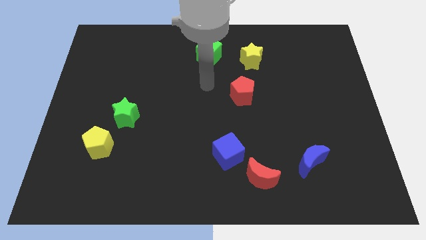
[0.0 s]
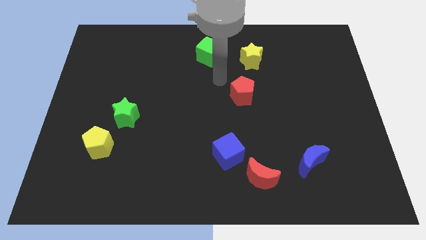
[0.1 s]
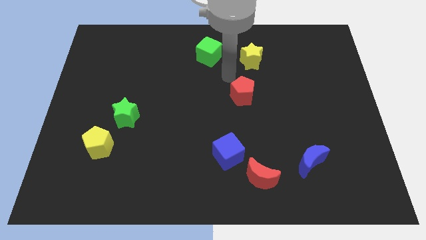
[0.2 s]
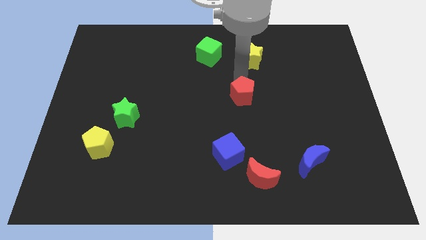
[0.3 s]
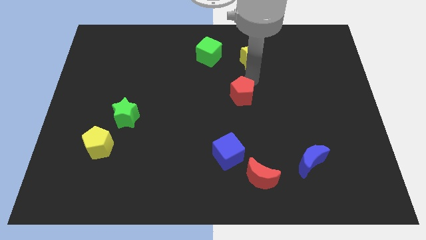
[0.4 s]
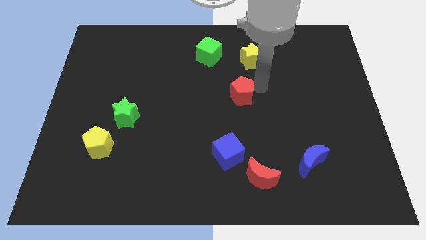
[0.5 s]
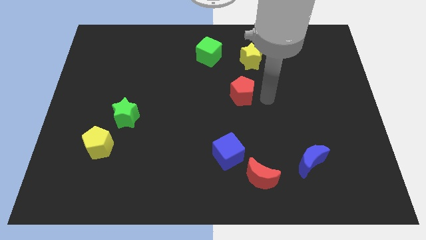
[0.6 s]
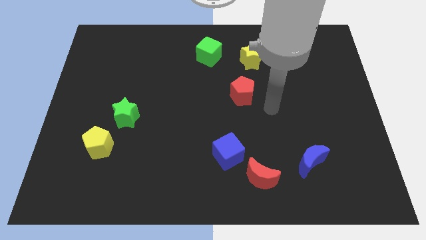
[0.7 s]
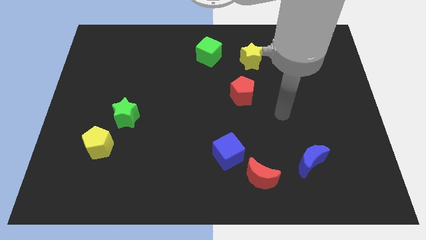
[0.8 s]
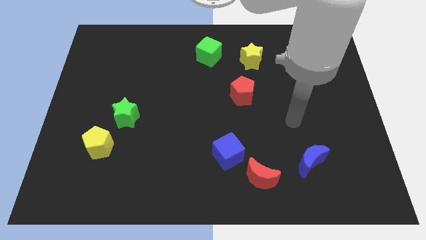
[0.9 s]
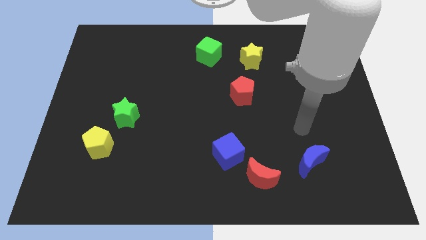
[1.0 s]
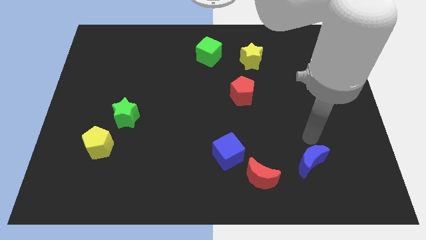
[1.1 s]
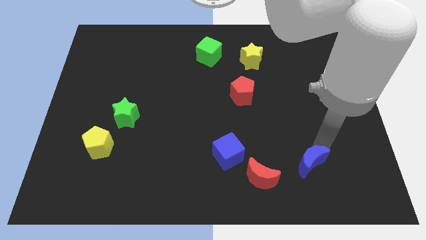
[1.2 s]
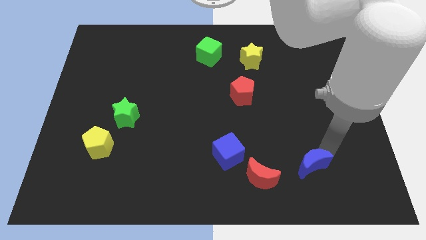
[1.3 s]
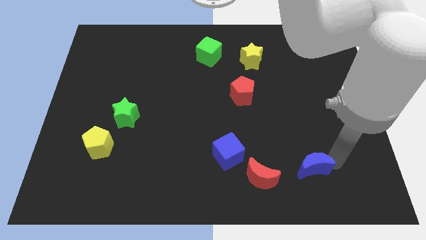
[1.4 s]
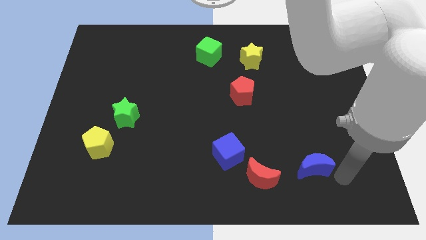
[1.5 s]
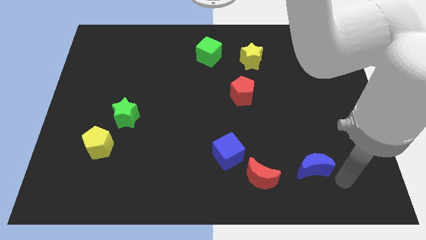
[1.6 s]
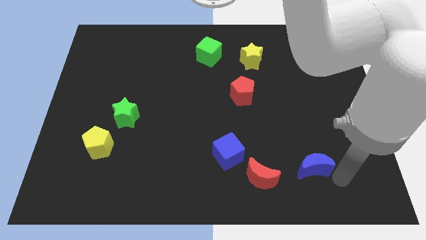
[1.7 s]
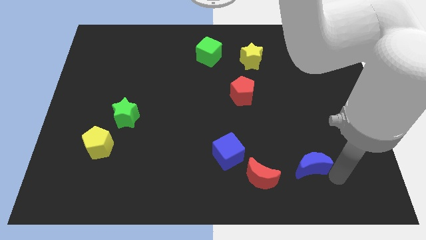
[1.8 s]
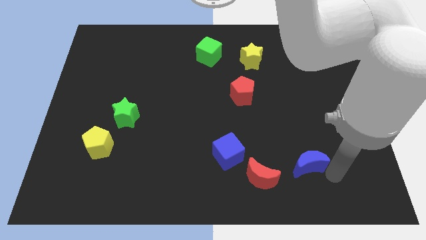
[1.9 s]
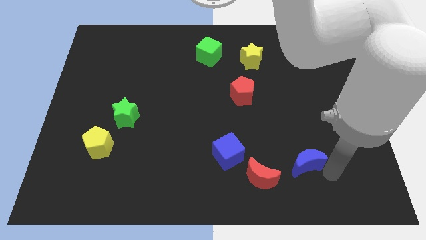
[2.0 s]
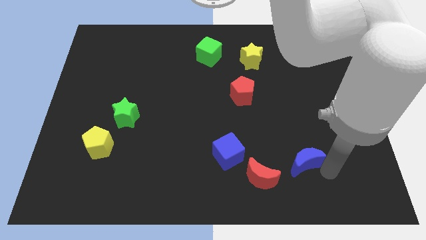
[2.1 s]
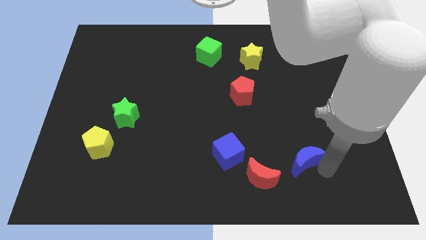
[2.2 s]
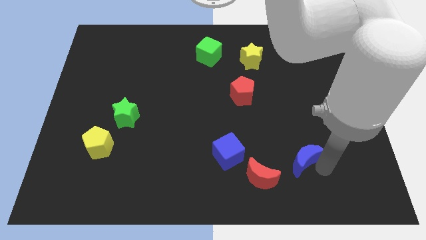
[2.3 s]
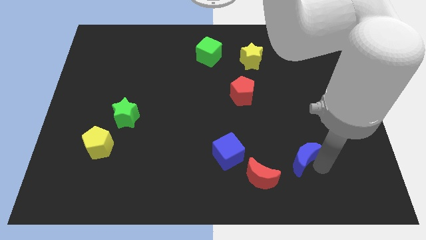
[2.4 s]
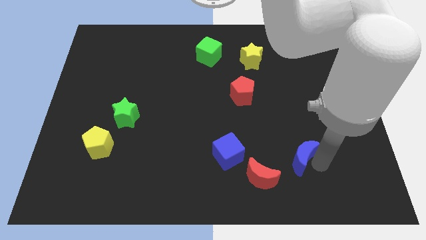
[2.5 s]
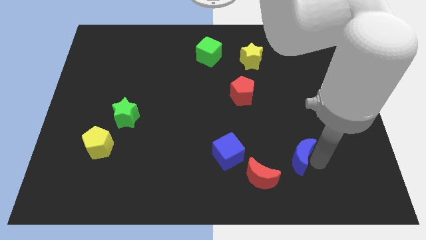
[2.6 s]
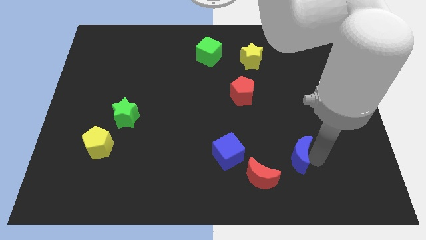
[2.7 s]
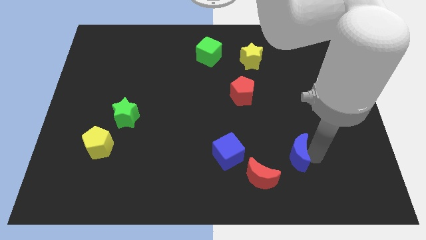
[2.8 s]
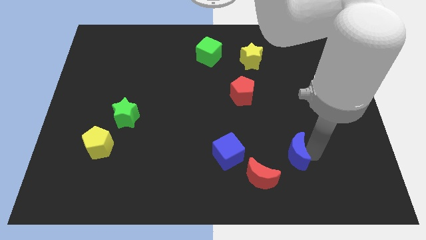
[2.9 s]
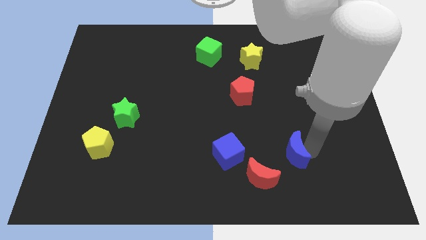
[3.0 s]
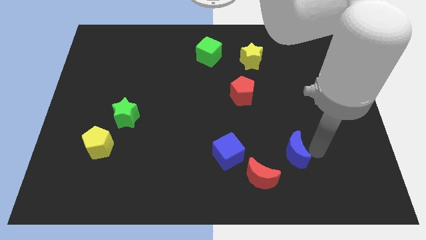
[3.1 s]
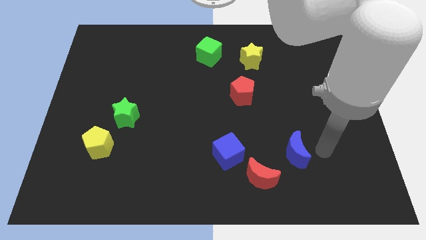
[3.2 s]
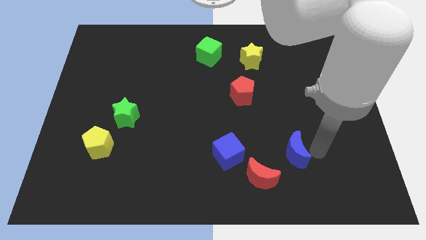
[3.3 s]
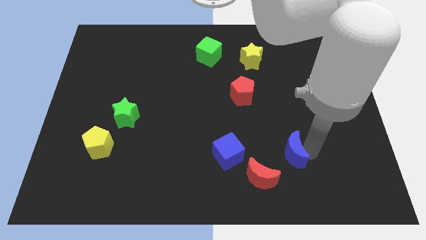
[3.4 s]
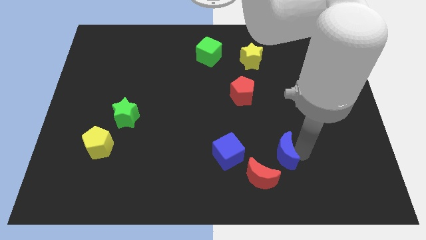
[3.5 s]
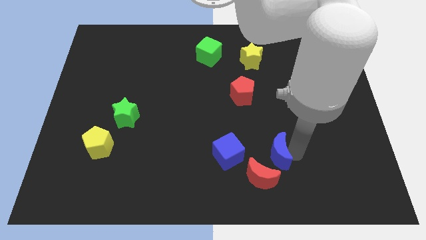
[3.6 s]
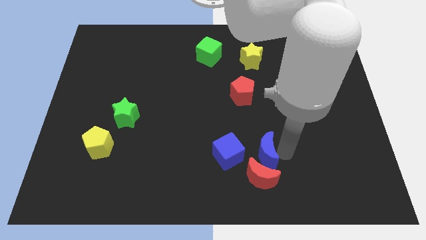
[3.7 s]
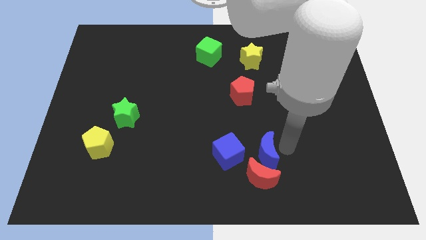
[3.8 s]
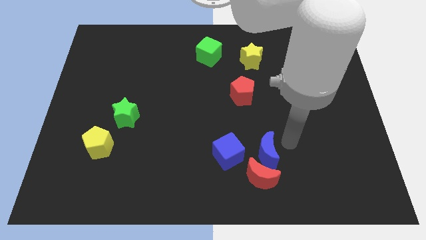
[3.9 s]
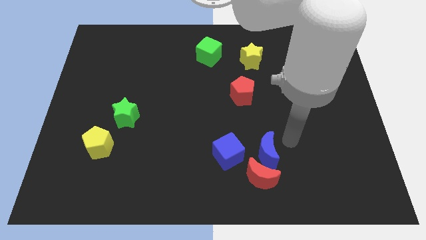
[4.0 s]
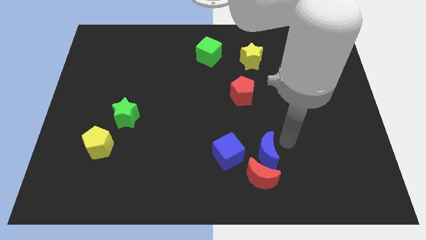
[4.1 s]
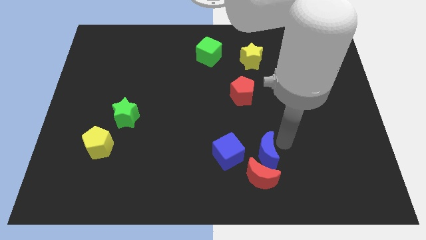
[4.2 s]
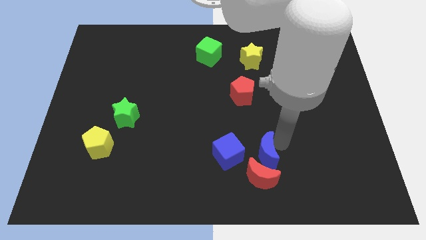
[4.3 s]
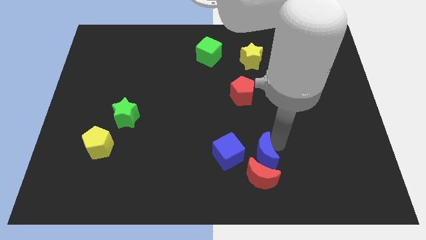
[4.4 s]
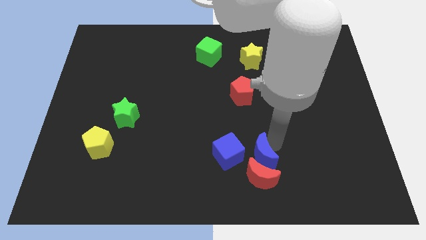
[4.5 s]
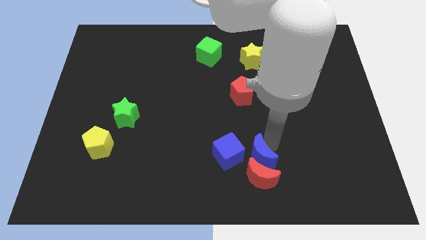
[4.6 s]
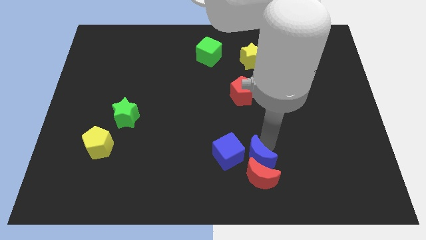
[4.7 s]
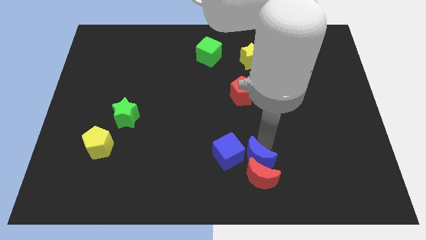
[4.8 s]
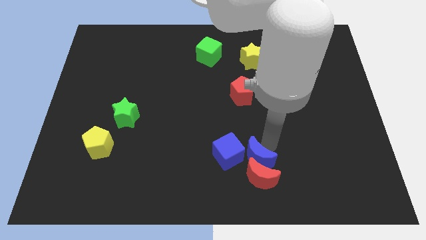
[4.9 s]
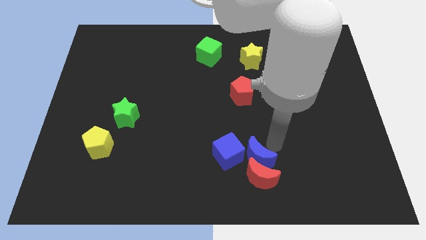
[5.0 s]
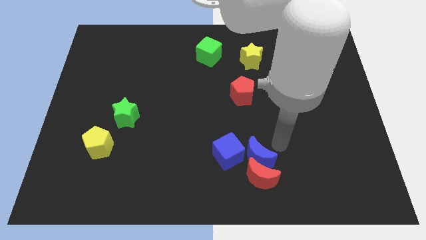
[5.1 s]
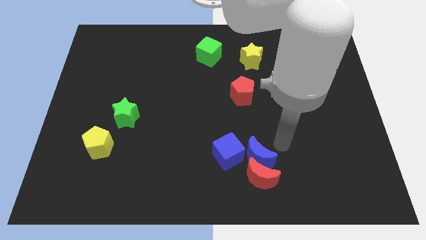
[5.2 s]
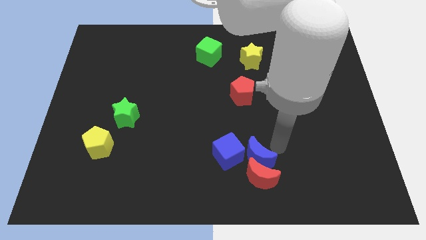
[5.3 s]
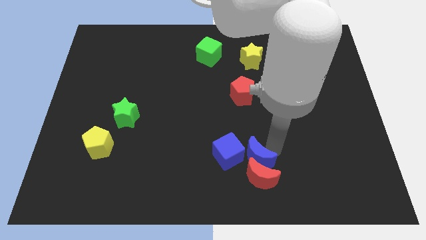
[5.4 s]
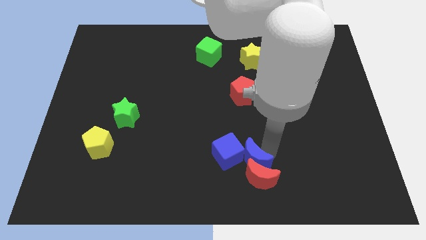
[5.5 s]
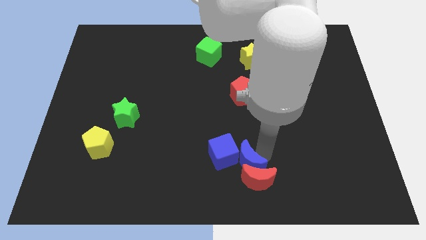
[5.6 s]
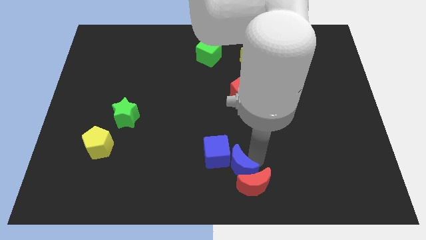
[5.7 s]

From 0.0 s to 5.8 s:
move the blue moon to the left of the red moon

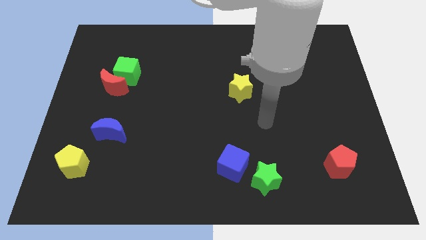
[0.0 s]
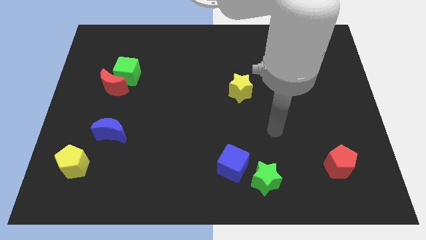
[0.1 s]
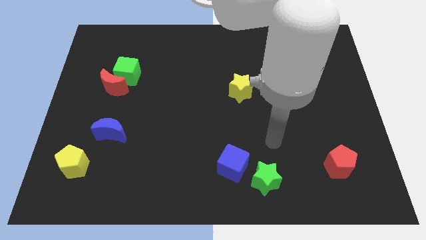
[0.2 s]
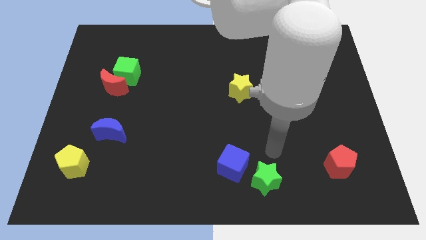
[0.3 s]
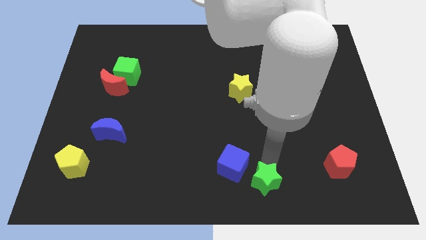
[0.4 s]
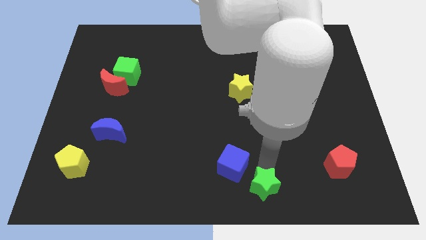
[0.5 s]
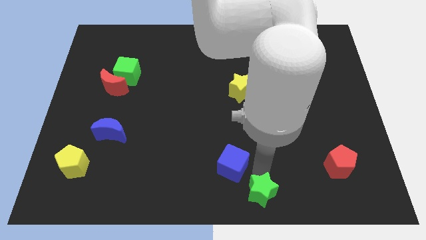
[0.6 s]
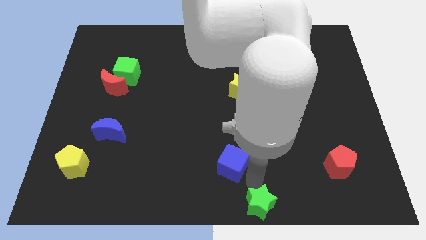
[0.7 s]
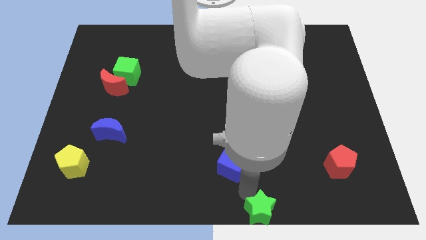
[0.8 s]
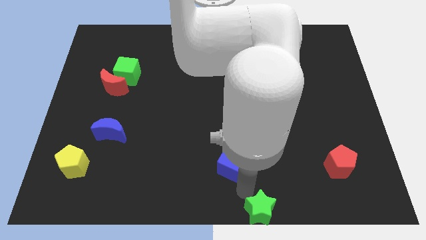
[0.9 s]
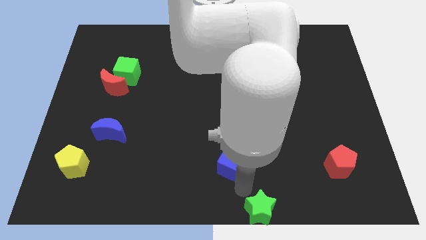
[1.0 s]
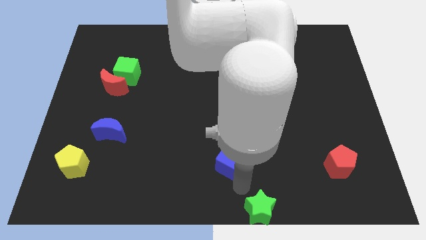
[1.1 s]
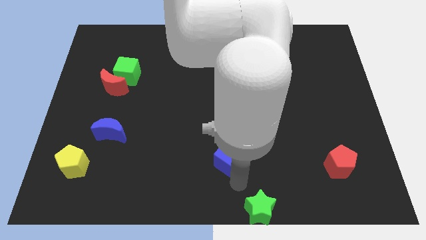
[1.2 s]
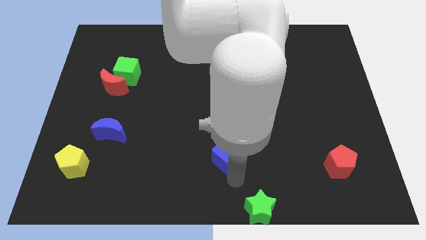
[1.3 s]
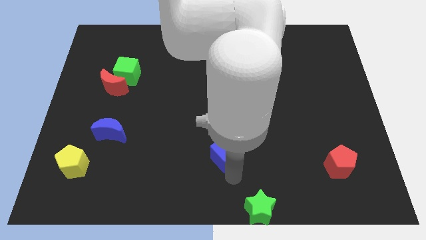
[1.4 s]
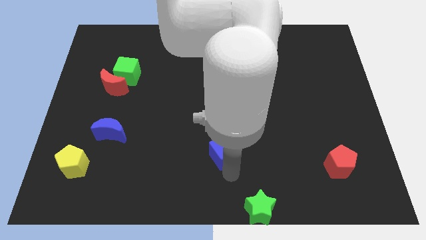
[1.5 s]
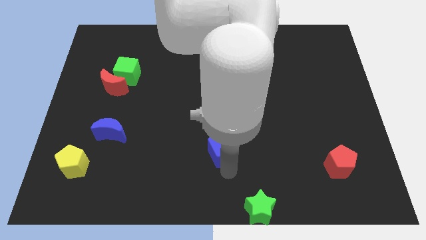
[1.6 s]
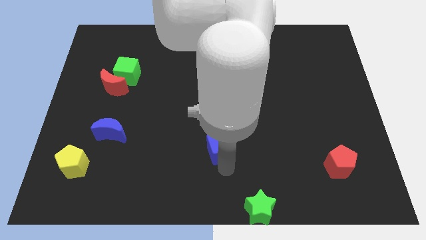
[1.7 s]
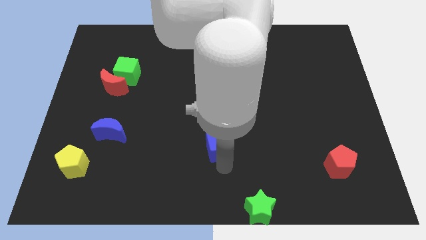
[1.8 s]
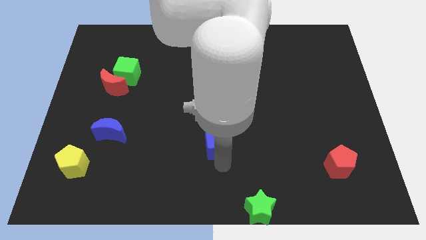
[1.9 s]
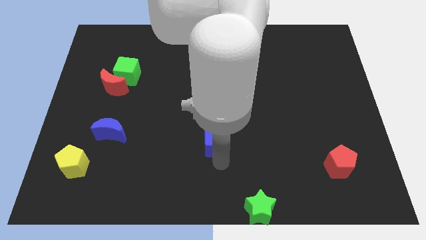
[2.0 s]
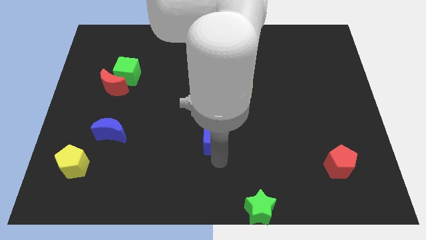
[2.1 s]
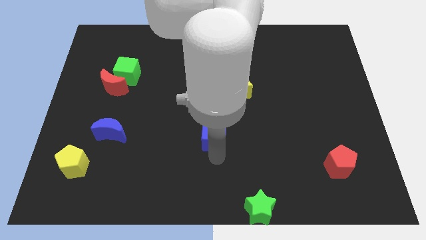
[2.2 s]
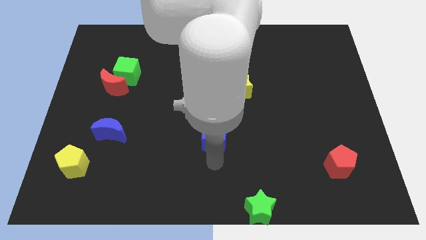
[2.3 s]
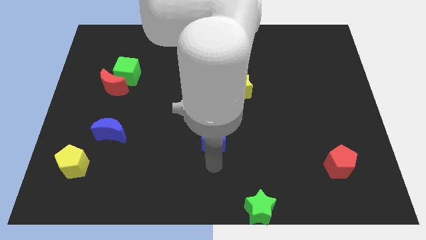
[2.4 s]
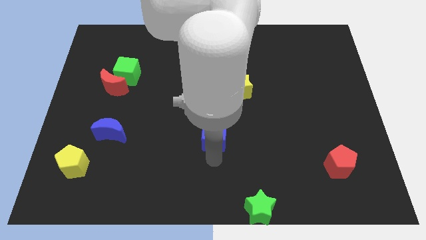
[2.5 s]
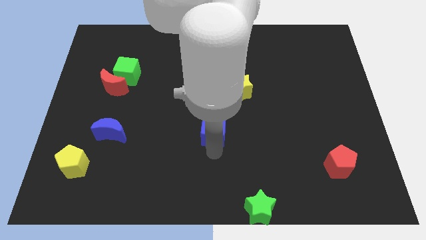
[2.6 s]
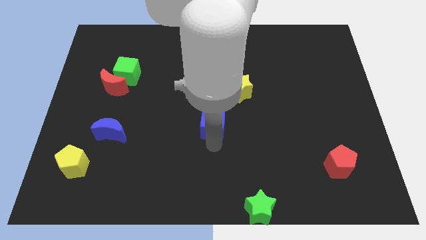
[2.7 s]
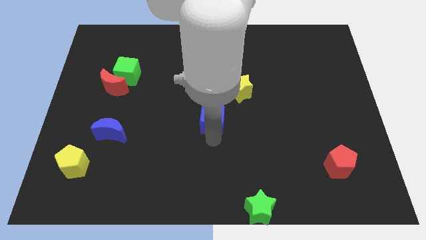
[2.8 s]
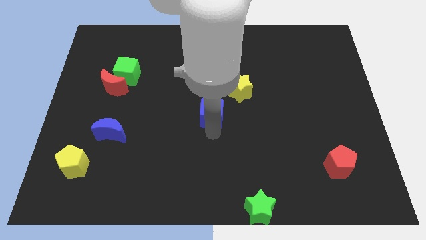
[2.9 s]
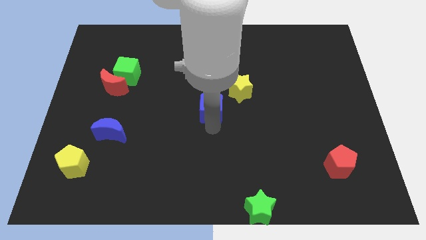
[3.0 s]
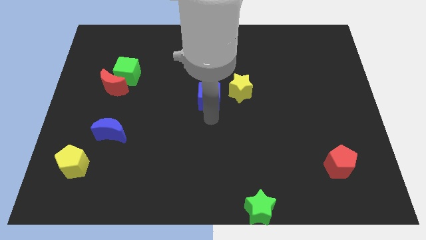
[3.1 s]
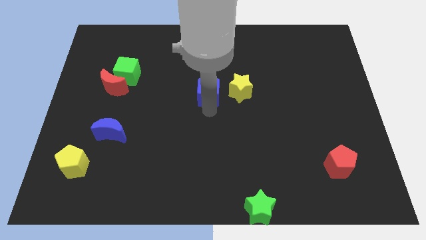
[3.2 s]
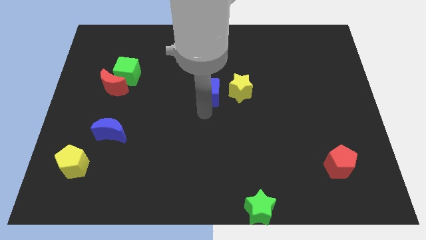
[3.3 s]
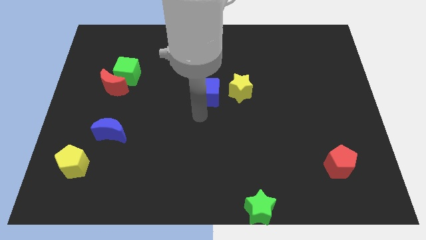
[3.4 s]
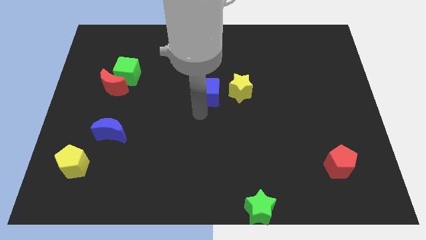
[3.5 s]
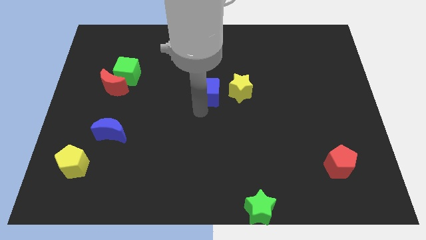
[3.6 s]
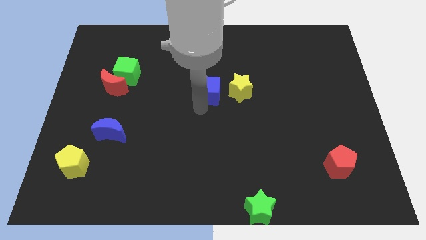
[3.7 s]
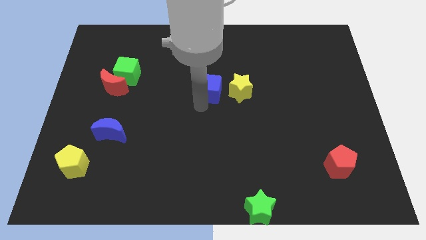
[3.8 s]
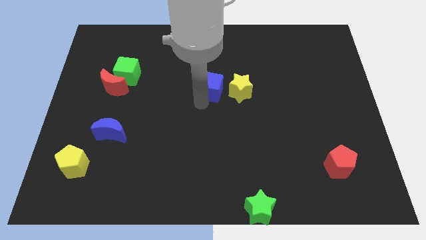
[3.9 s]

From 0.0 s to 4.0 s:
slide the blue cube diagonally up and to the left of the yellow star
